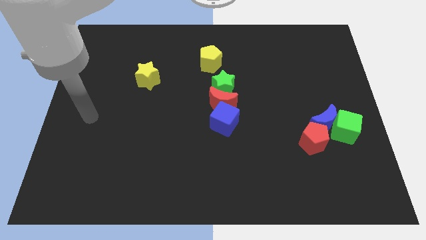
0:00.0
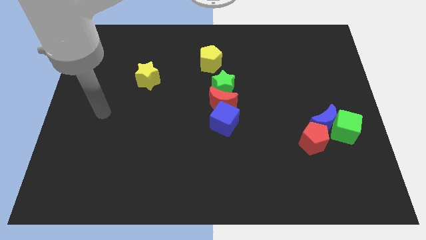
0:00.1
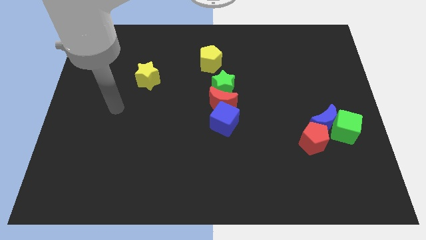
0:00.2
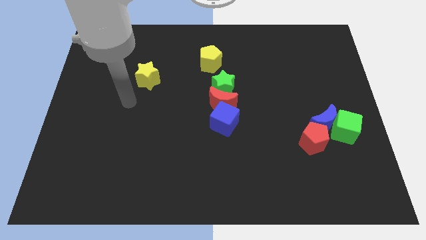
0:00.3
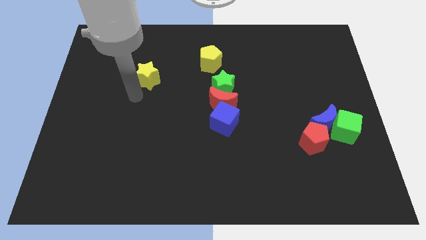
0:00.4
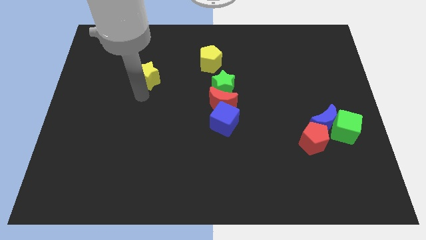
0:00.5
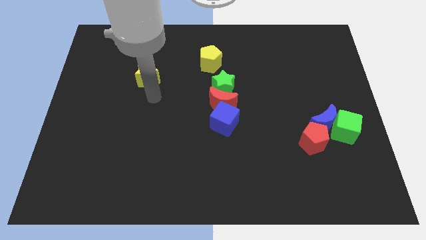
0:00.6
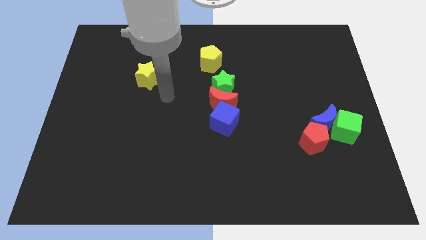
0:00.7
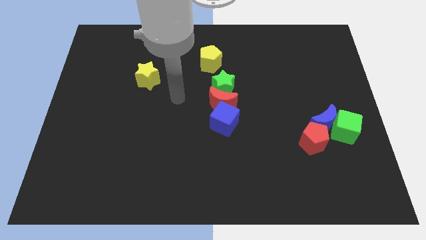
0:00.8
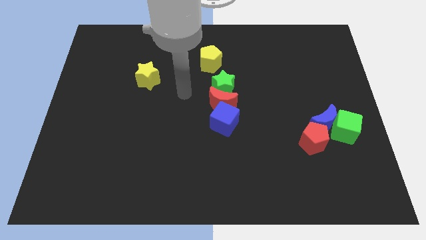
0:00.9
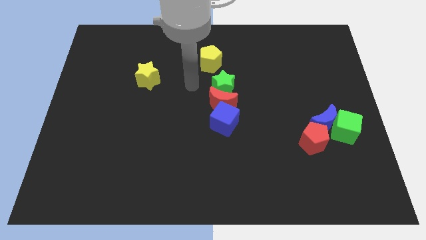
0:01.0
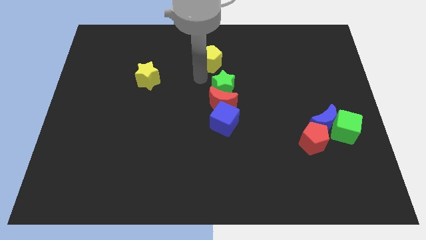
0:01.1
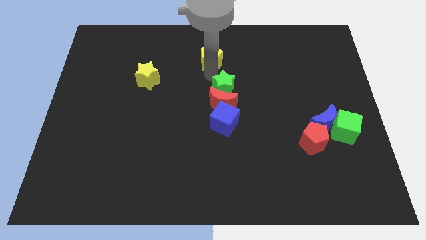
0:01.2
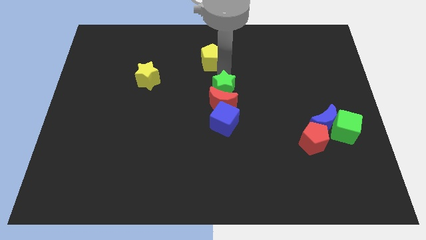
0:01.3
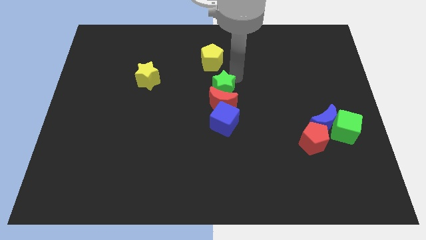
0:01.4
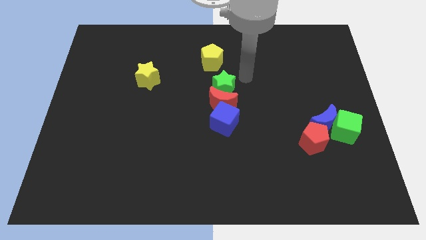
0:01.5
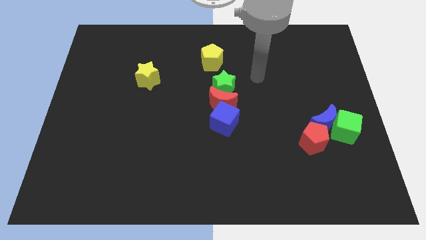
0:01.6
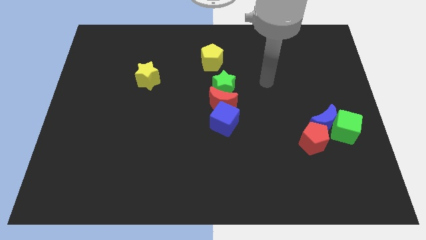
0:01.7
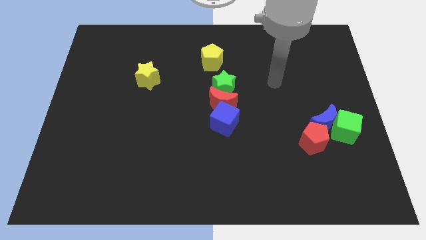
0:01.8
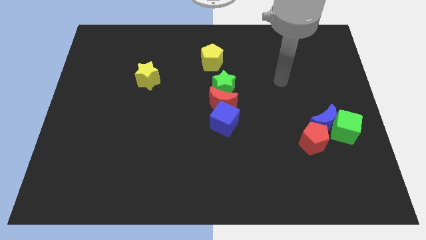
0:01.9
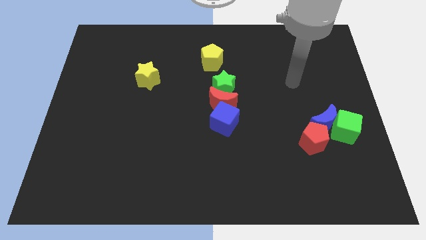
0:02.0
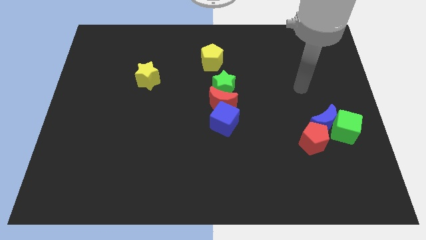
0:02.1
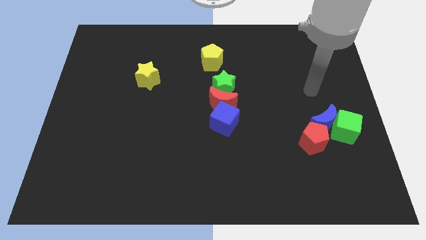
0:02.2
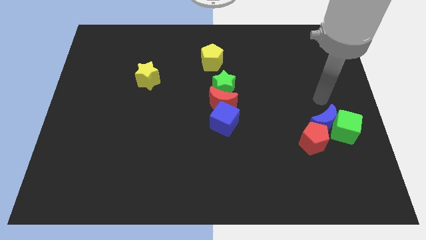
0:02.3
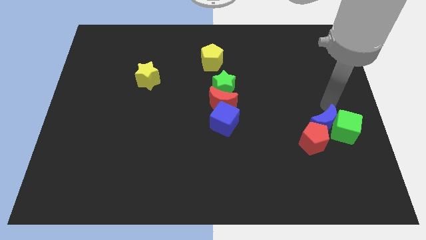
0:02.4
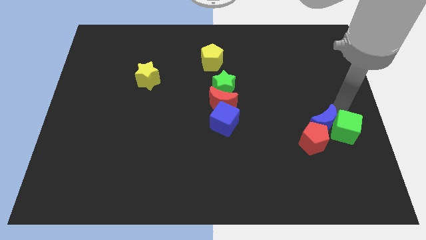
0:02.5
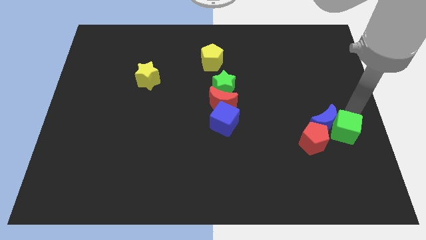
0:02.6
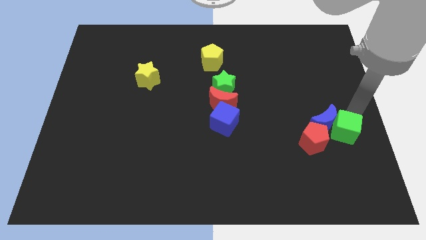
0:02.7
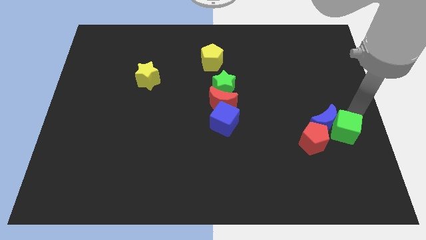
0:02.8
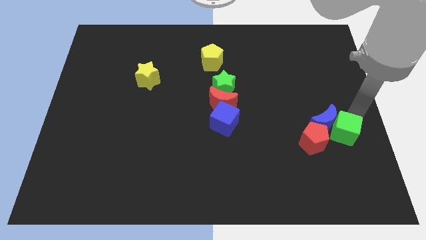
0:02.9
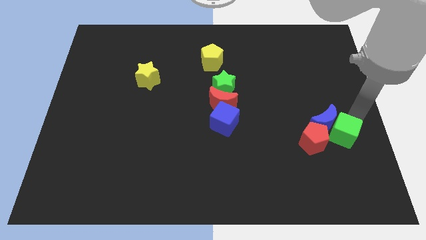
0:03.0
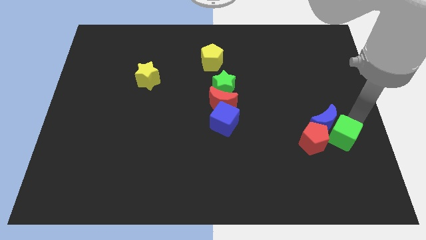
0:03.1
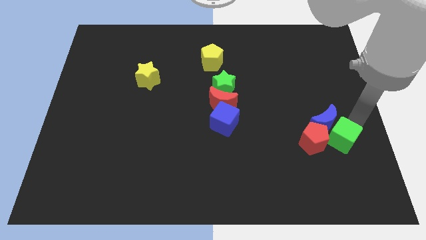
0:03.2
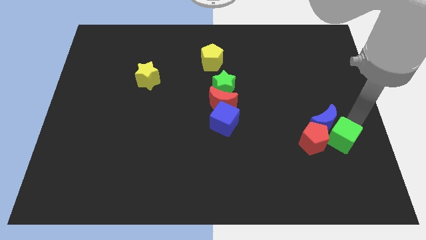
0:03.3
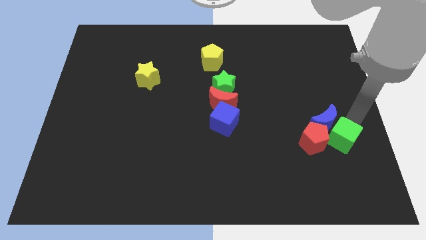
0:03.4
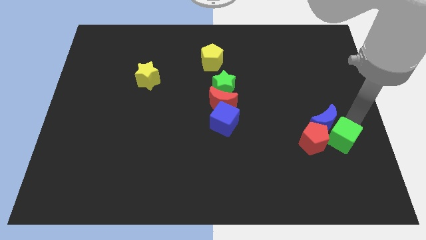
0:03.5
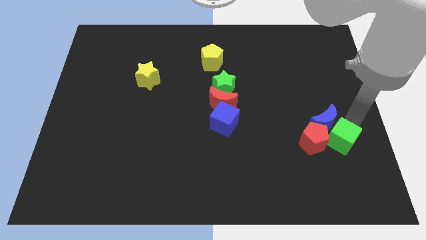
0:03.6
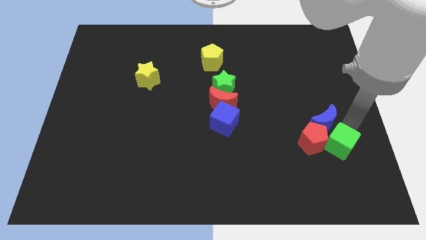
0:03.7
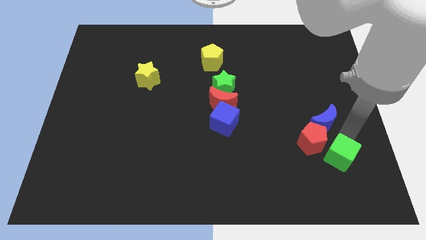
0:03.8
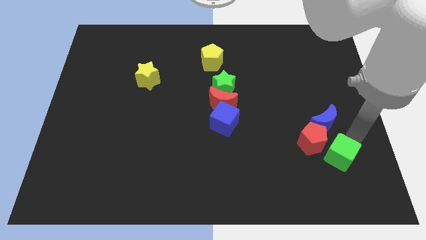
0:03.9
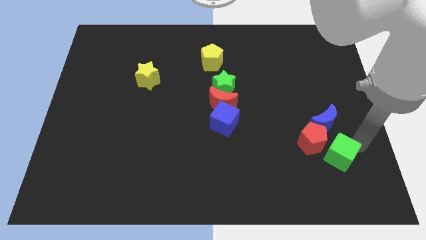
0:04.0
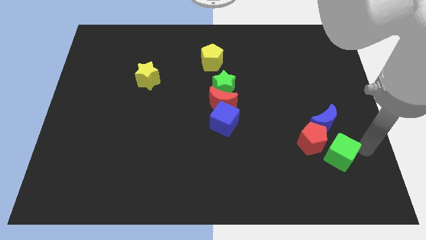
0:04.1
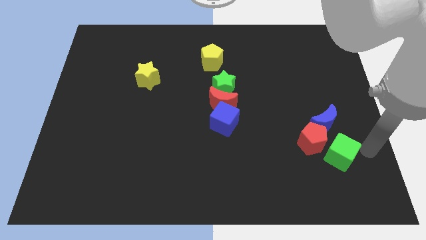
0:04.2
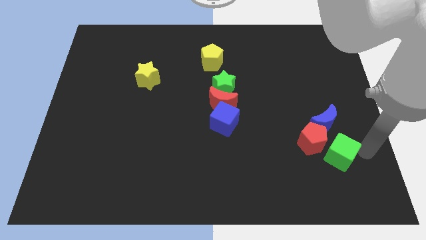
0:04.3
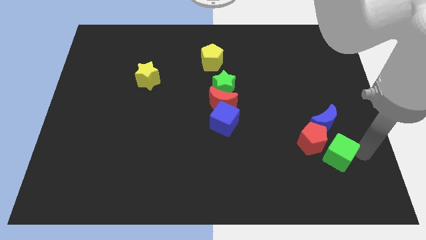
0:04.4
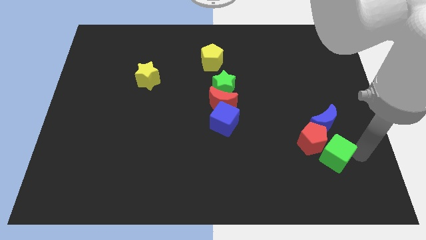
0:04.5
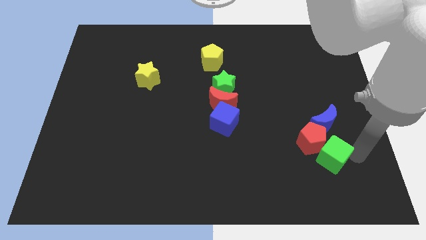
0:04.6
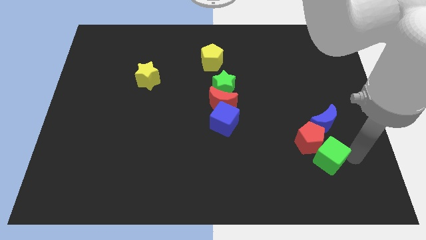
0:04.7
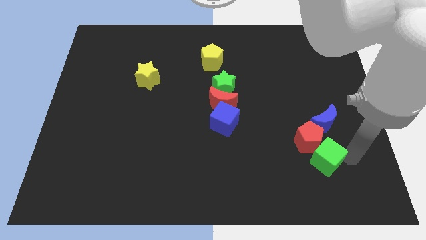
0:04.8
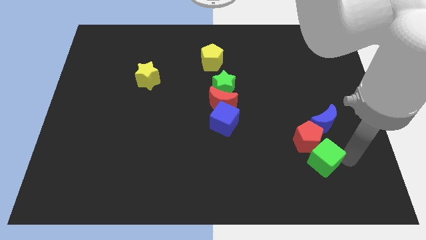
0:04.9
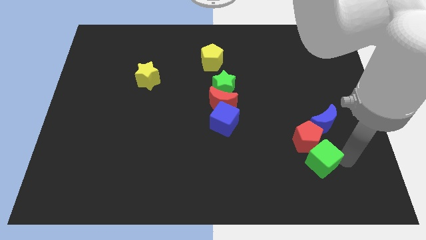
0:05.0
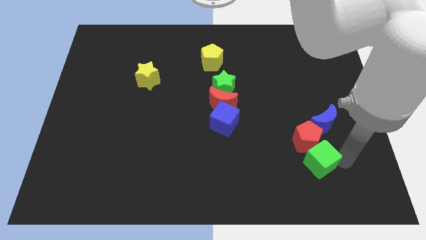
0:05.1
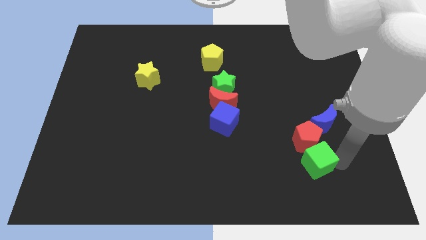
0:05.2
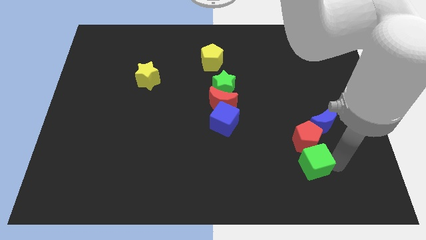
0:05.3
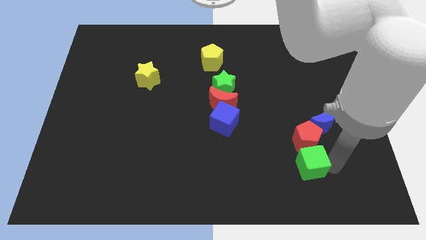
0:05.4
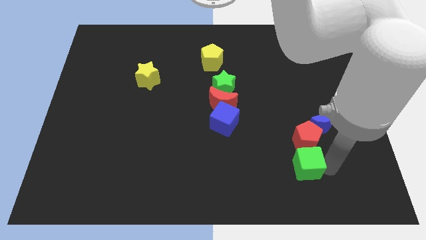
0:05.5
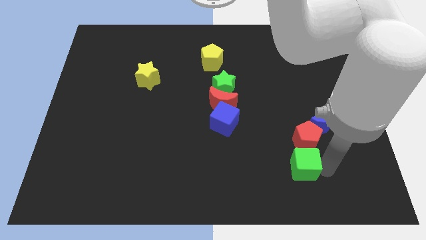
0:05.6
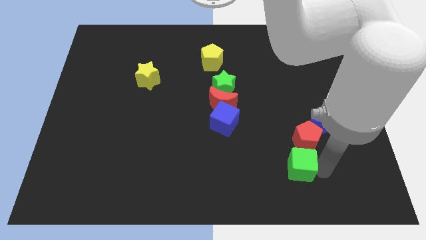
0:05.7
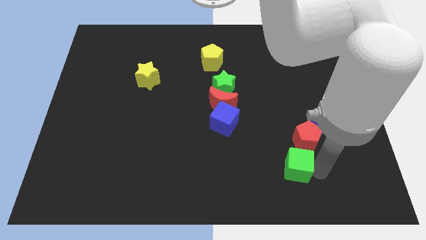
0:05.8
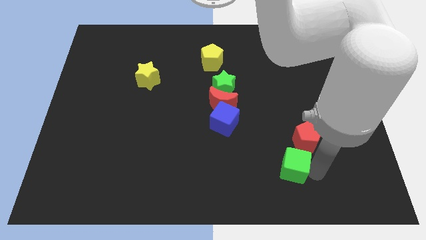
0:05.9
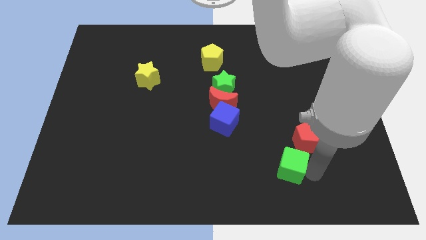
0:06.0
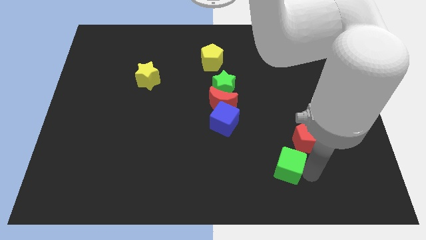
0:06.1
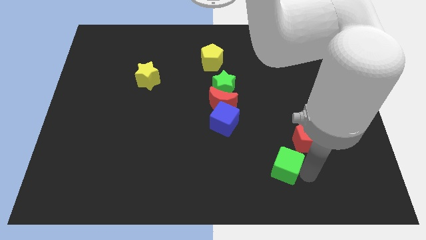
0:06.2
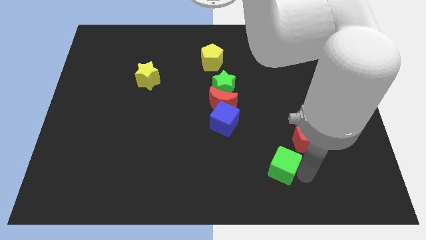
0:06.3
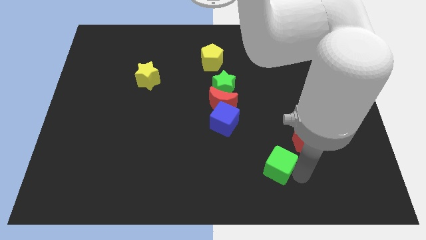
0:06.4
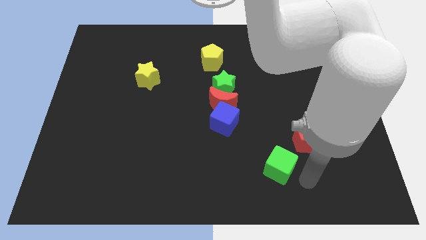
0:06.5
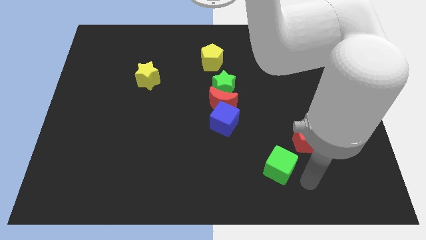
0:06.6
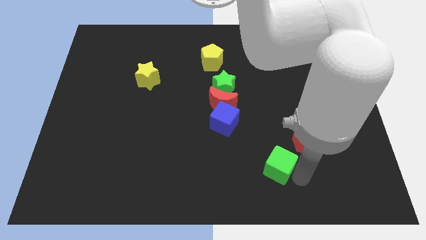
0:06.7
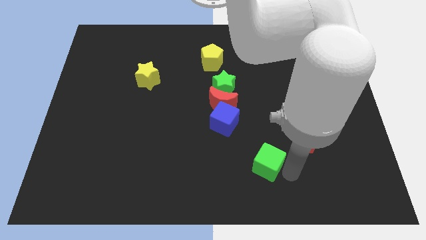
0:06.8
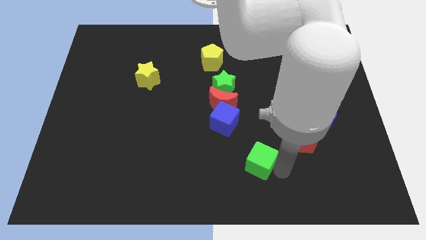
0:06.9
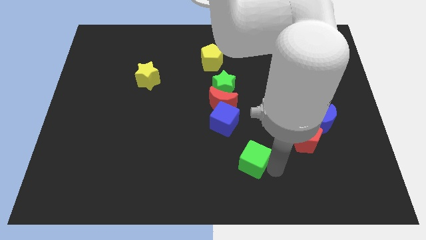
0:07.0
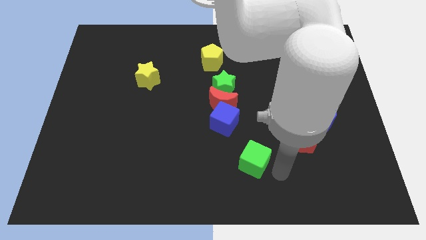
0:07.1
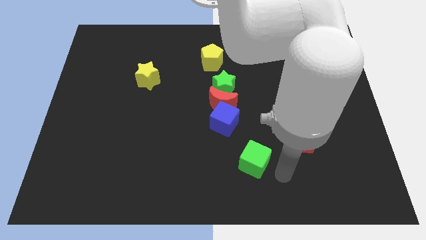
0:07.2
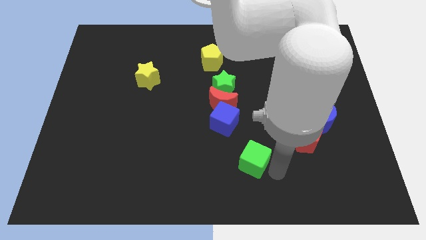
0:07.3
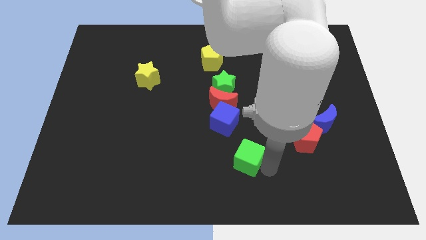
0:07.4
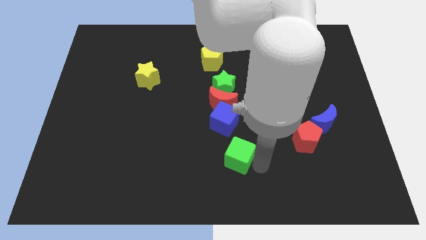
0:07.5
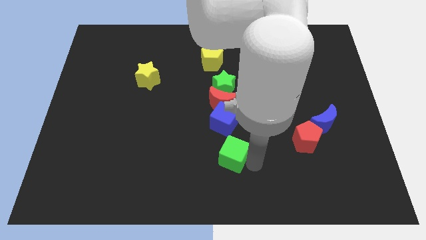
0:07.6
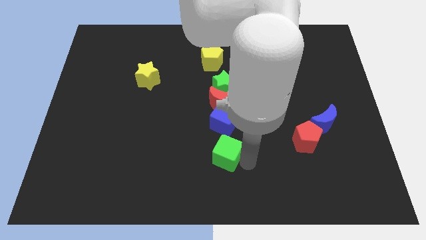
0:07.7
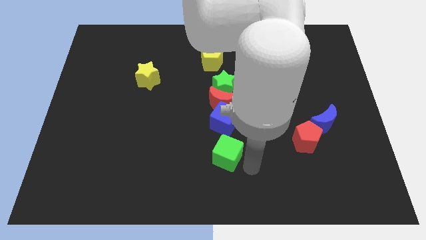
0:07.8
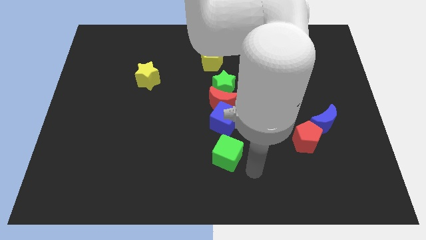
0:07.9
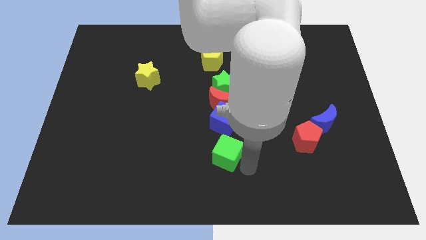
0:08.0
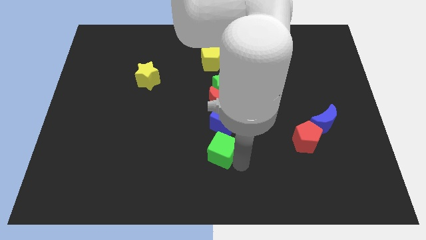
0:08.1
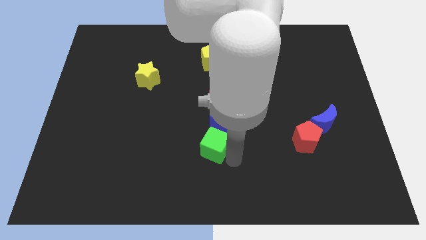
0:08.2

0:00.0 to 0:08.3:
slide the green cube to the bottom left of the blue cube
